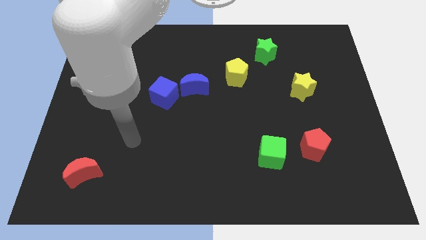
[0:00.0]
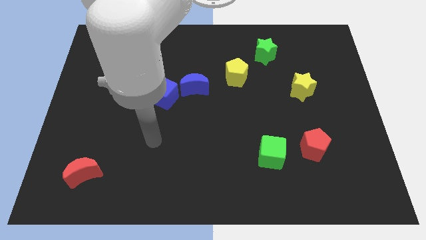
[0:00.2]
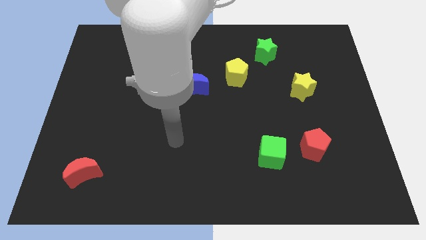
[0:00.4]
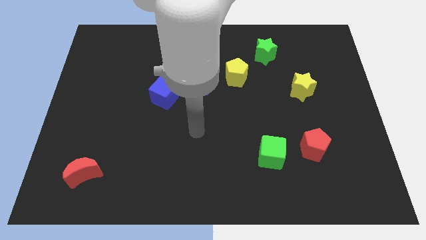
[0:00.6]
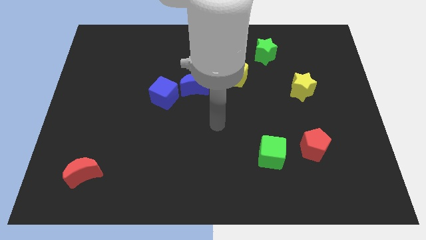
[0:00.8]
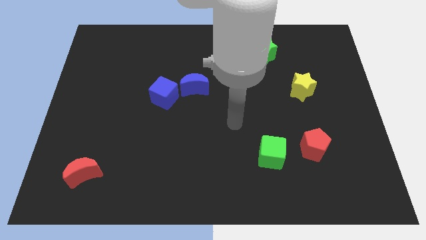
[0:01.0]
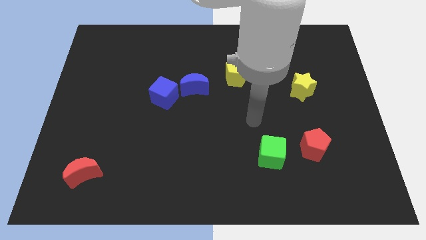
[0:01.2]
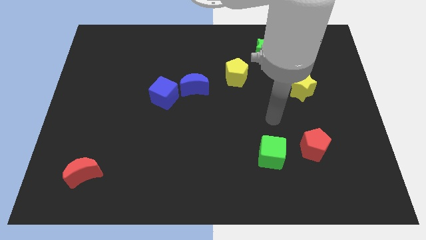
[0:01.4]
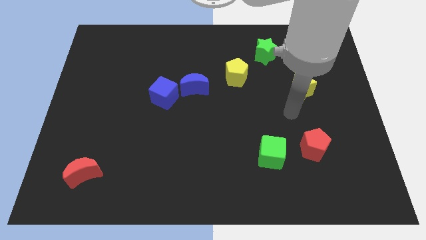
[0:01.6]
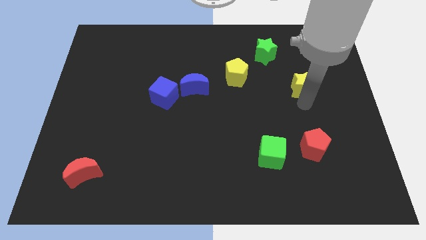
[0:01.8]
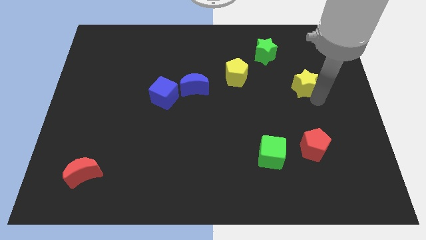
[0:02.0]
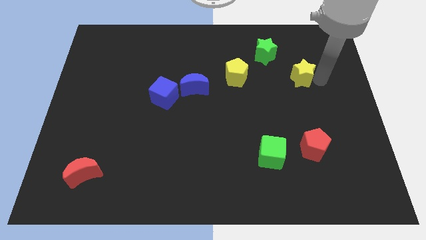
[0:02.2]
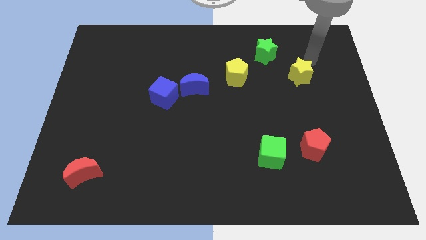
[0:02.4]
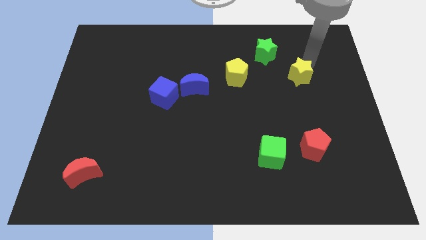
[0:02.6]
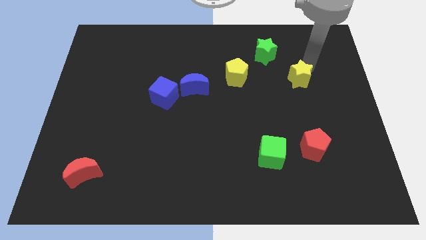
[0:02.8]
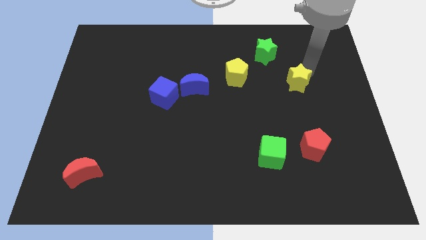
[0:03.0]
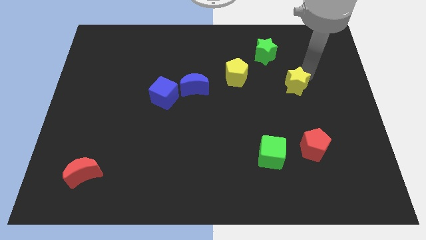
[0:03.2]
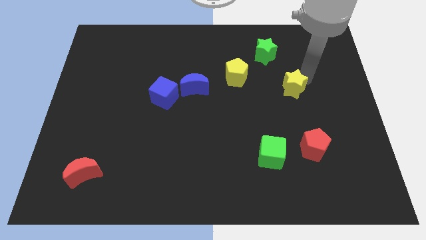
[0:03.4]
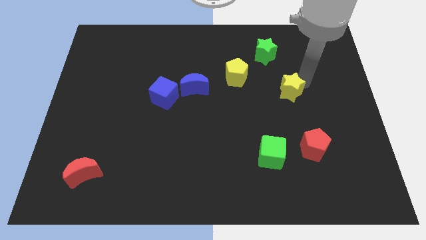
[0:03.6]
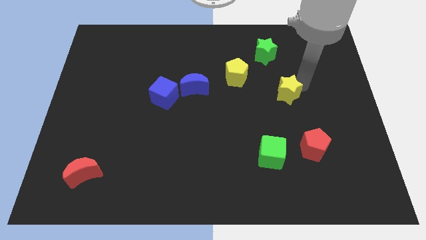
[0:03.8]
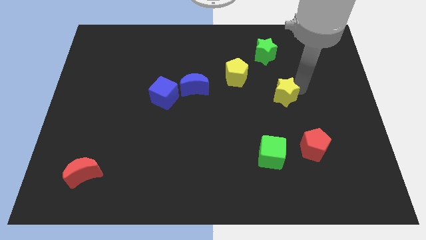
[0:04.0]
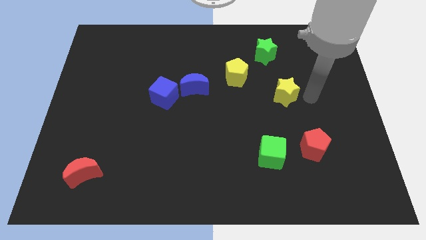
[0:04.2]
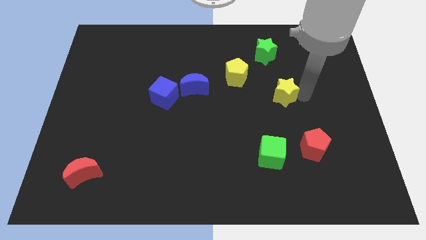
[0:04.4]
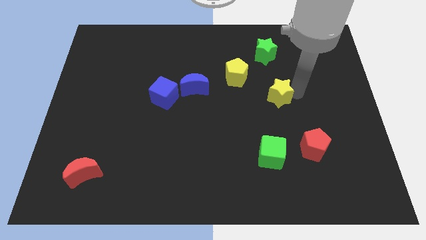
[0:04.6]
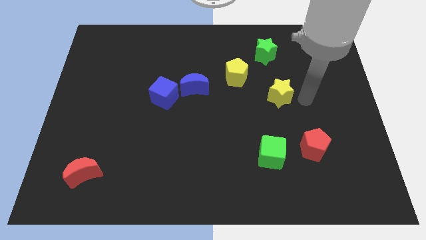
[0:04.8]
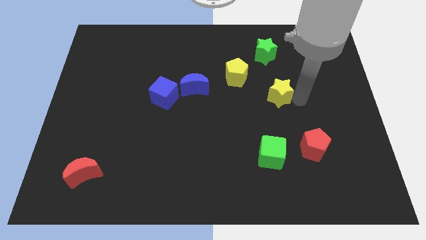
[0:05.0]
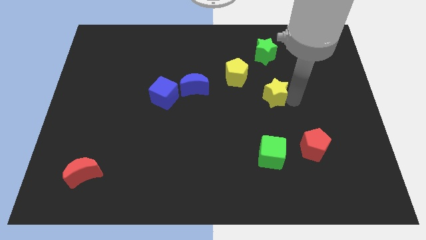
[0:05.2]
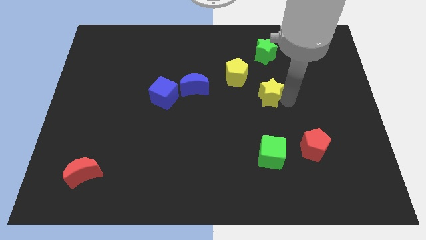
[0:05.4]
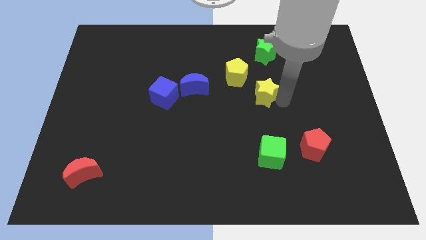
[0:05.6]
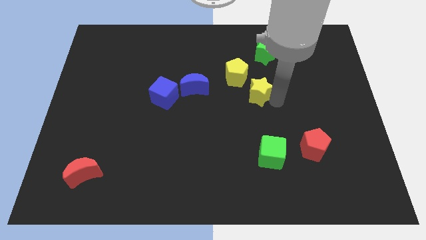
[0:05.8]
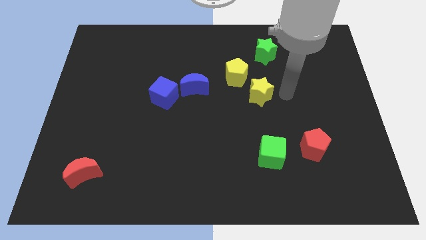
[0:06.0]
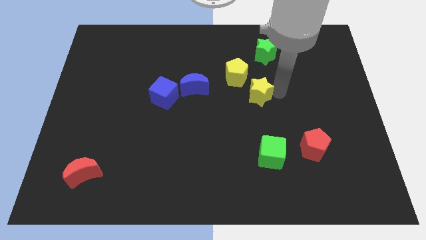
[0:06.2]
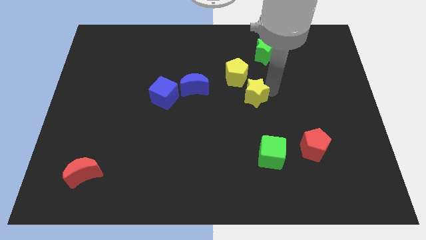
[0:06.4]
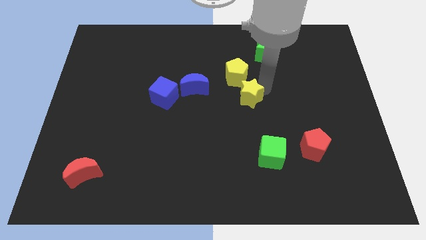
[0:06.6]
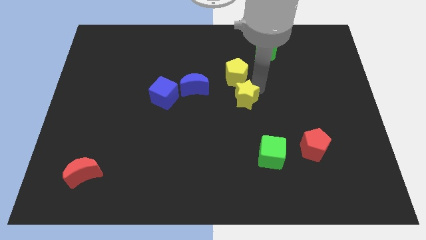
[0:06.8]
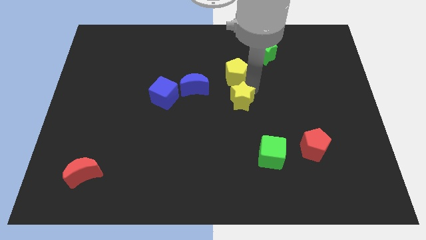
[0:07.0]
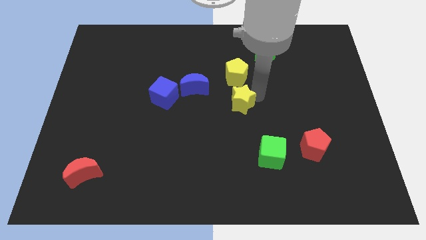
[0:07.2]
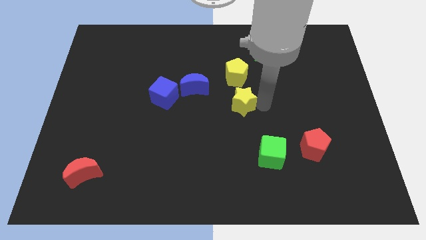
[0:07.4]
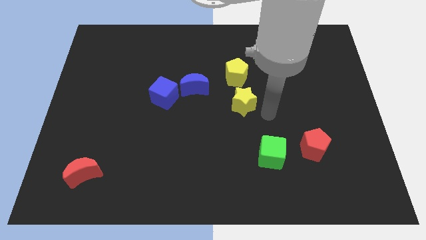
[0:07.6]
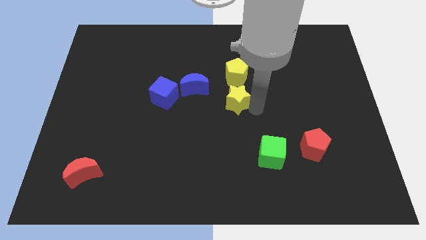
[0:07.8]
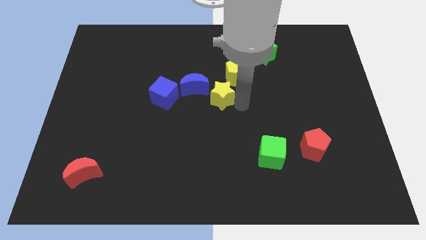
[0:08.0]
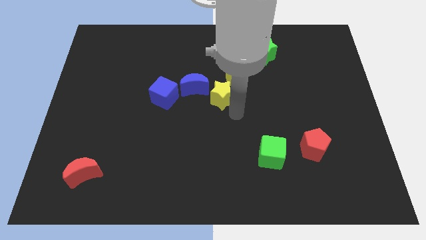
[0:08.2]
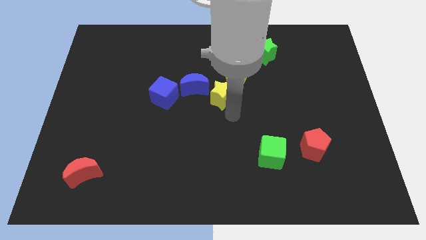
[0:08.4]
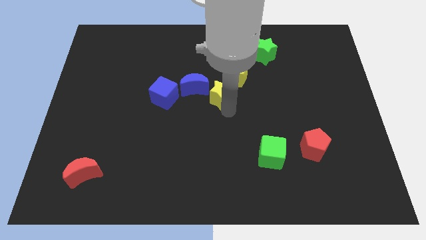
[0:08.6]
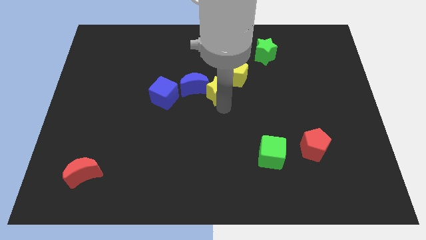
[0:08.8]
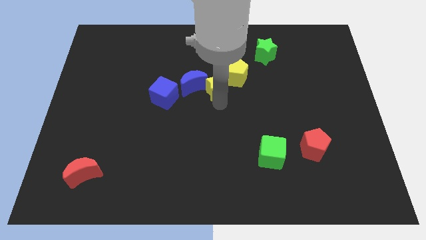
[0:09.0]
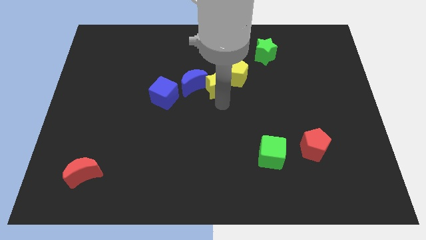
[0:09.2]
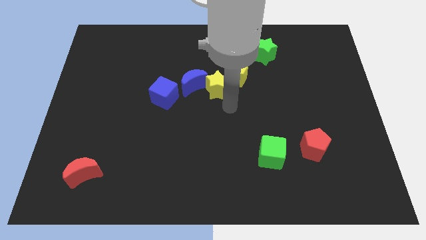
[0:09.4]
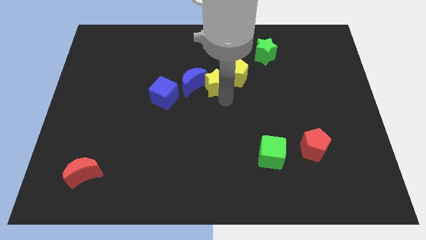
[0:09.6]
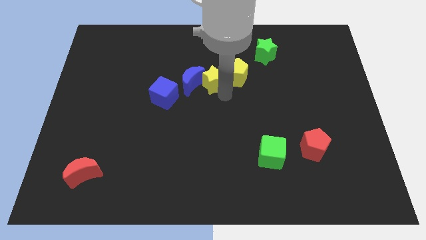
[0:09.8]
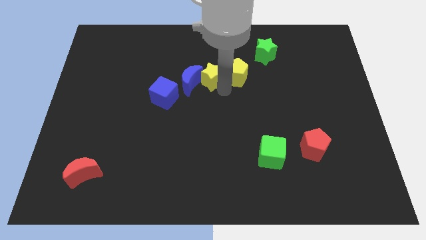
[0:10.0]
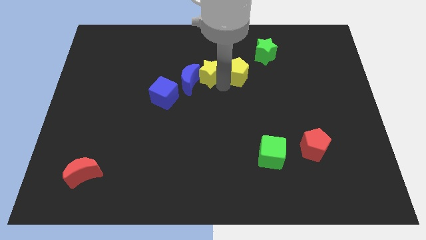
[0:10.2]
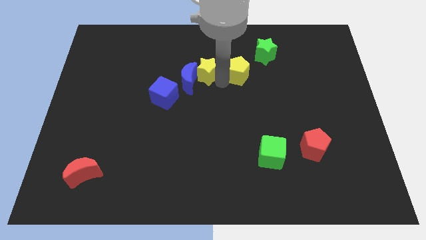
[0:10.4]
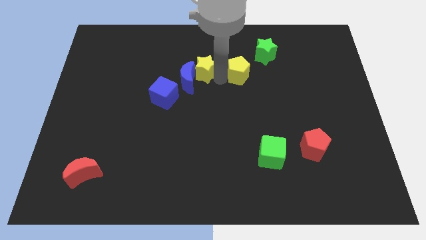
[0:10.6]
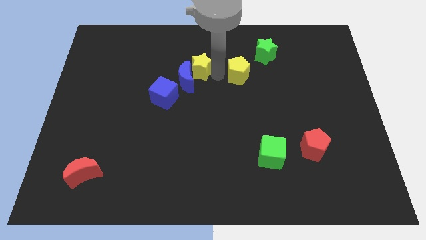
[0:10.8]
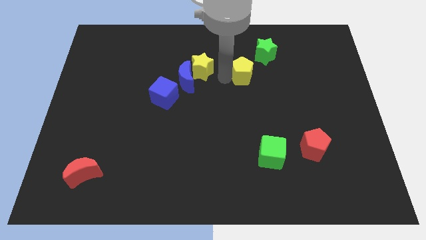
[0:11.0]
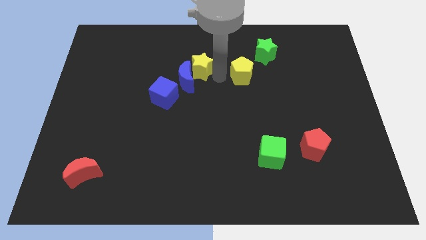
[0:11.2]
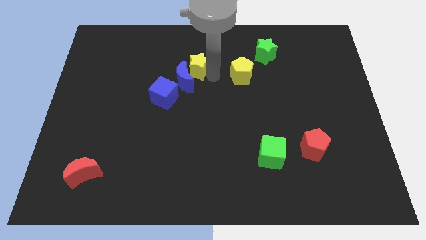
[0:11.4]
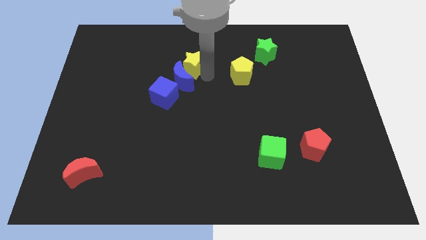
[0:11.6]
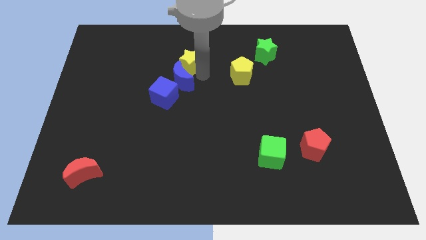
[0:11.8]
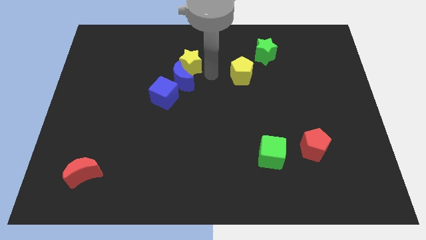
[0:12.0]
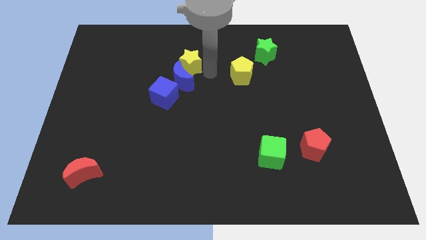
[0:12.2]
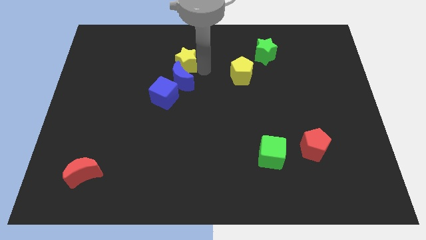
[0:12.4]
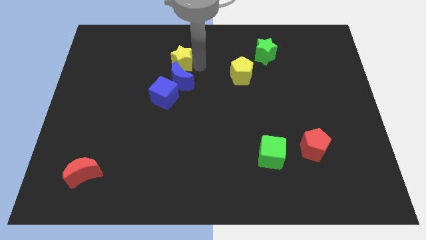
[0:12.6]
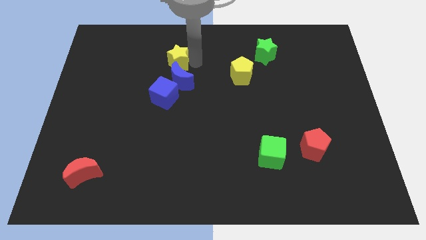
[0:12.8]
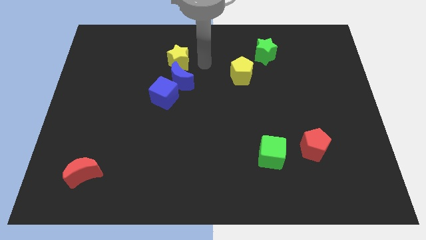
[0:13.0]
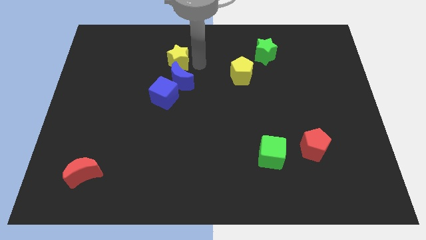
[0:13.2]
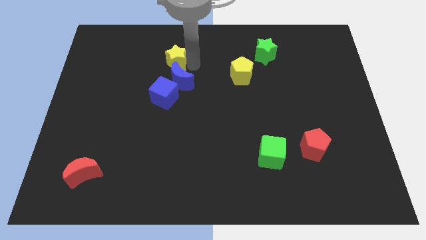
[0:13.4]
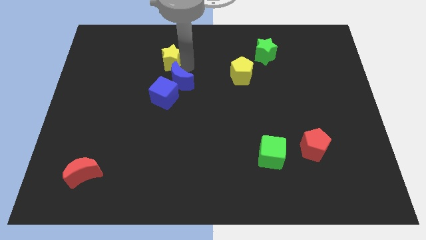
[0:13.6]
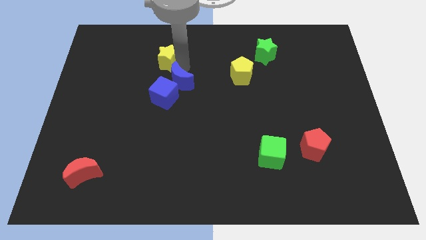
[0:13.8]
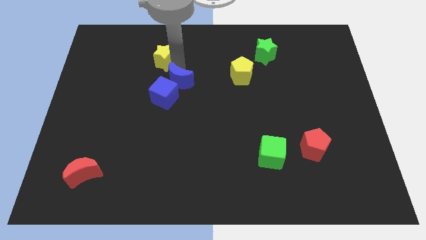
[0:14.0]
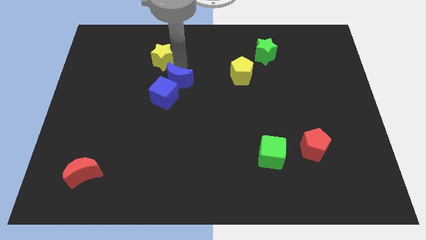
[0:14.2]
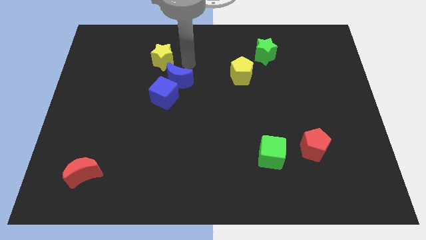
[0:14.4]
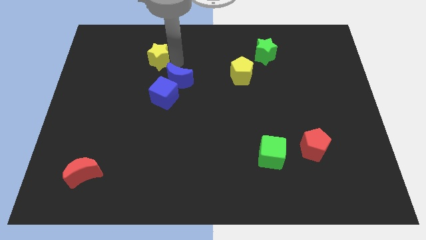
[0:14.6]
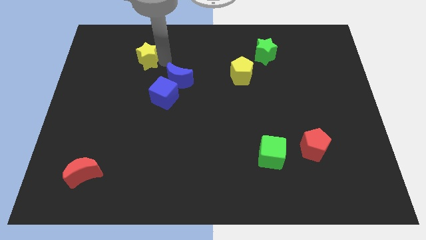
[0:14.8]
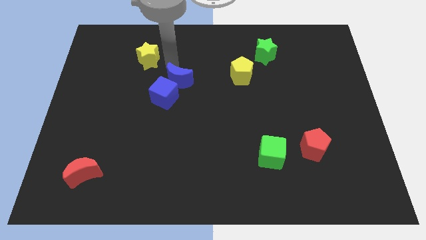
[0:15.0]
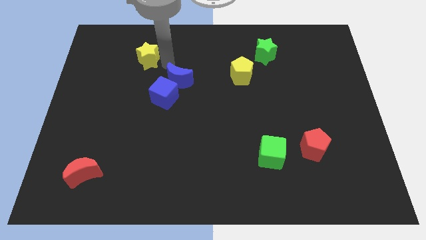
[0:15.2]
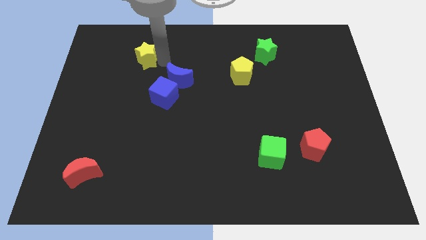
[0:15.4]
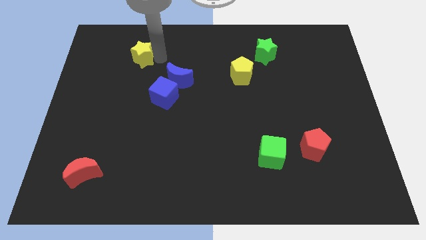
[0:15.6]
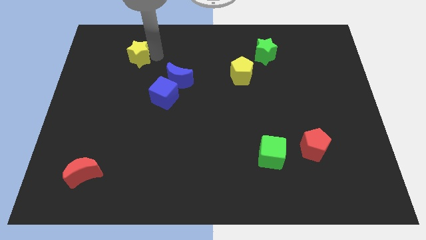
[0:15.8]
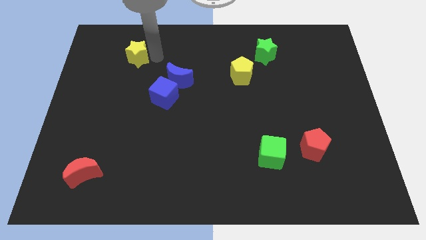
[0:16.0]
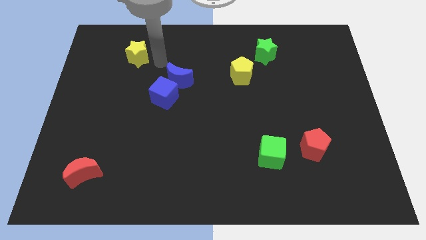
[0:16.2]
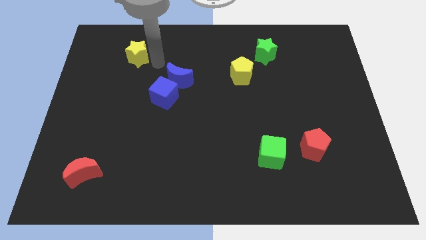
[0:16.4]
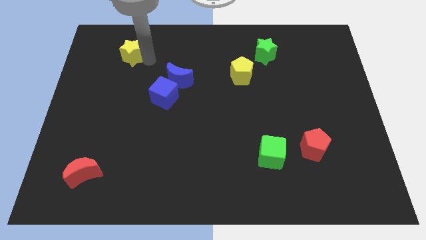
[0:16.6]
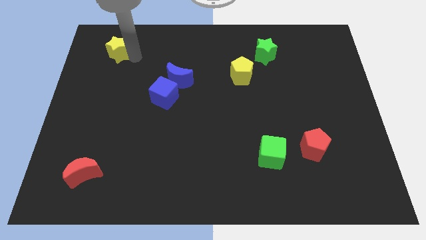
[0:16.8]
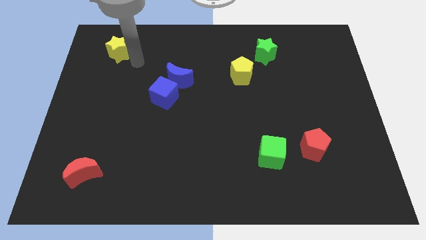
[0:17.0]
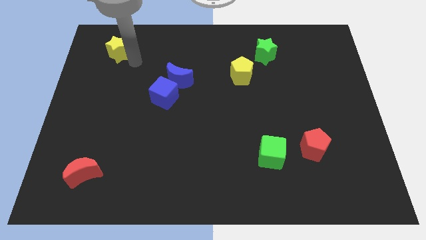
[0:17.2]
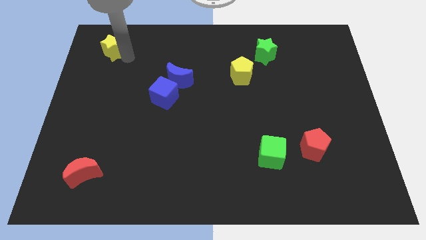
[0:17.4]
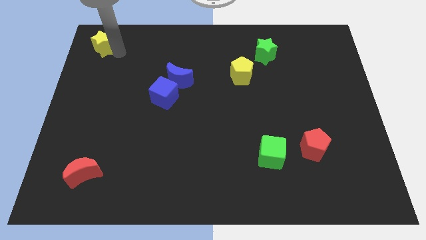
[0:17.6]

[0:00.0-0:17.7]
put the yellow star to the top left corner
